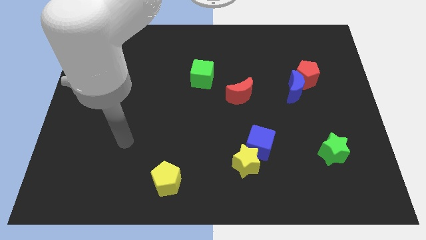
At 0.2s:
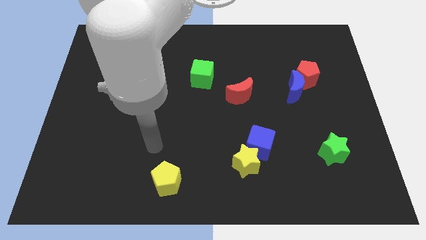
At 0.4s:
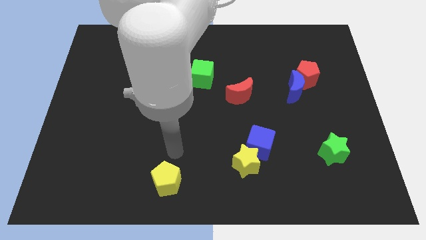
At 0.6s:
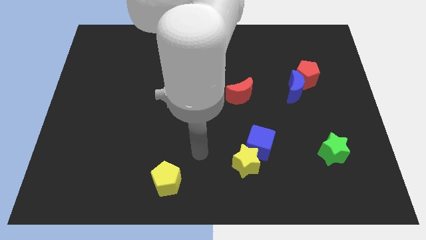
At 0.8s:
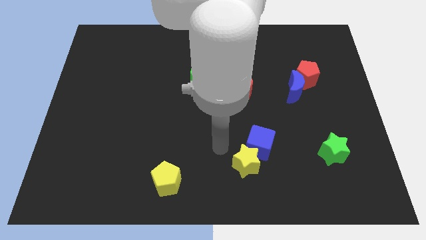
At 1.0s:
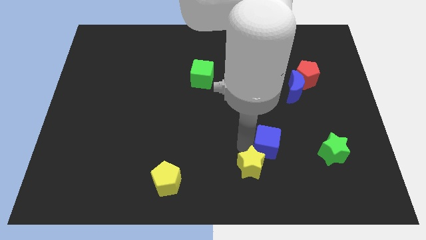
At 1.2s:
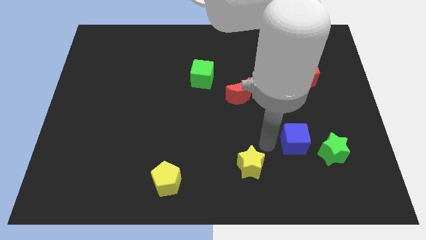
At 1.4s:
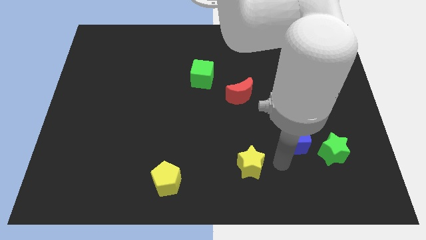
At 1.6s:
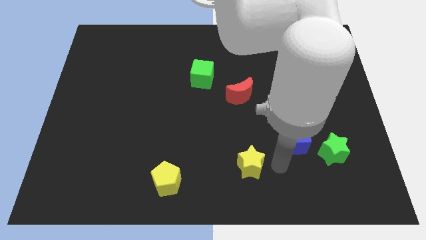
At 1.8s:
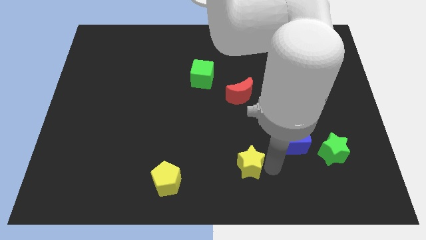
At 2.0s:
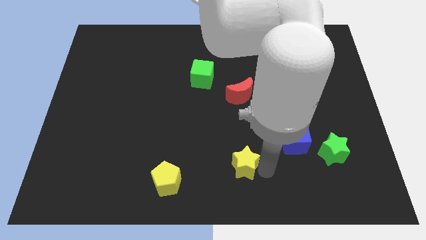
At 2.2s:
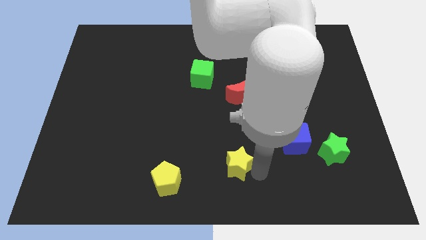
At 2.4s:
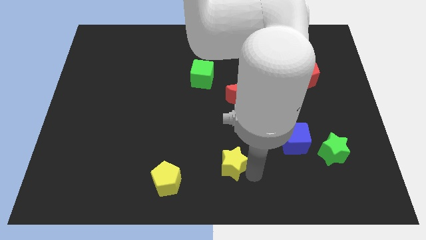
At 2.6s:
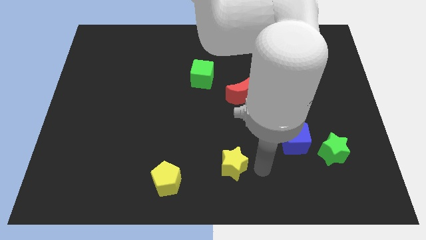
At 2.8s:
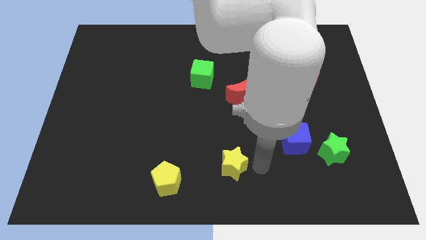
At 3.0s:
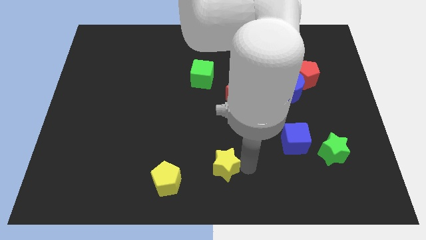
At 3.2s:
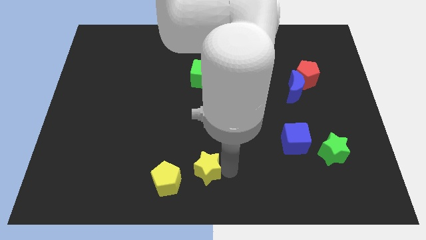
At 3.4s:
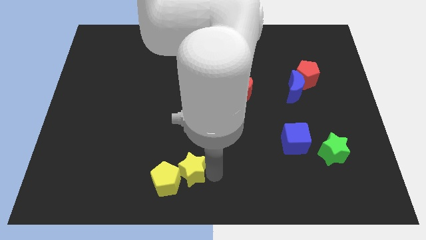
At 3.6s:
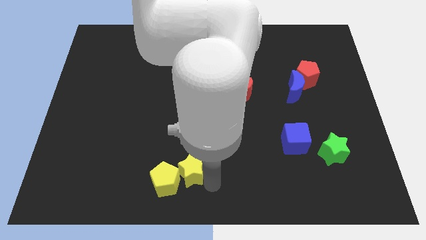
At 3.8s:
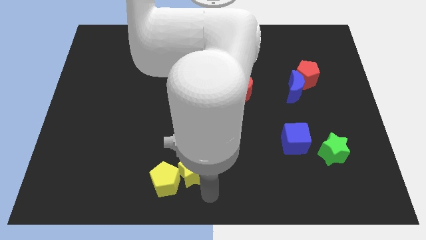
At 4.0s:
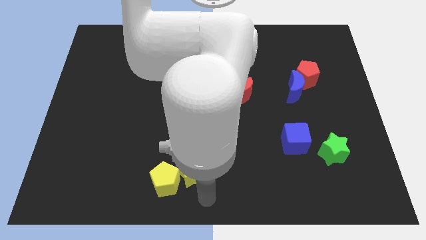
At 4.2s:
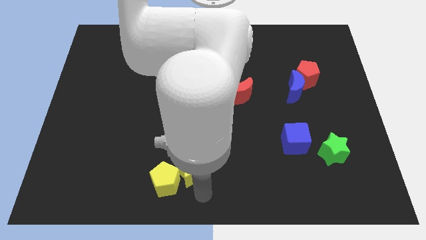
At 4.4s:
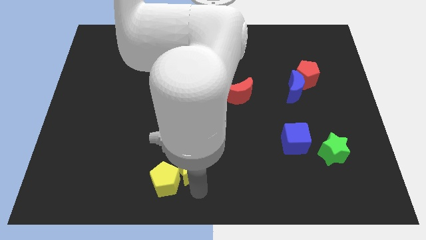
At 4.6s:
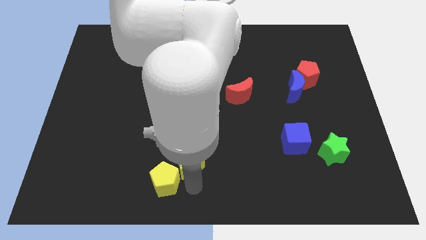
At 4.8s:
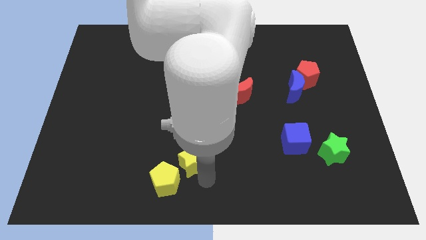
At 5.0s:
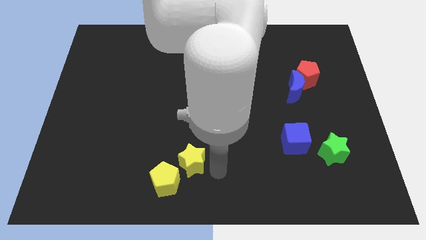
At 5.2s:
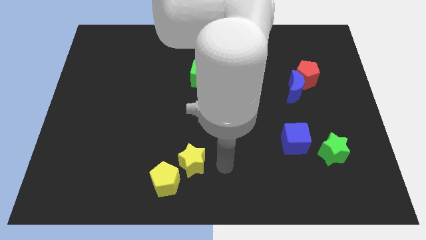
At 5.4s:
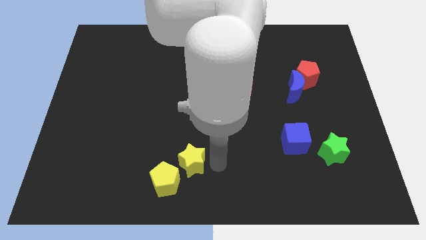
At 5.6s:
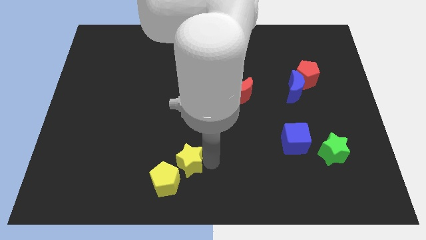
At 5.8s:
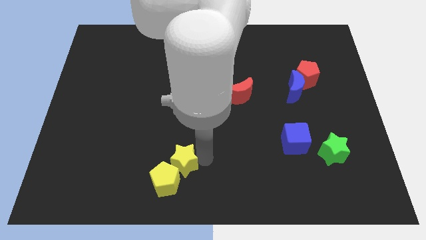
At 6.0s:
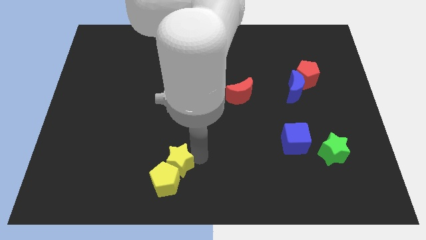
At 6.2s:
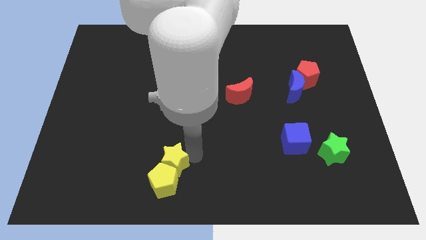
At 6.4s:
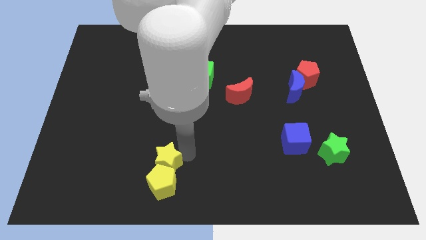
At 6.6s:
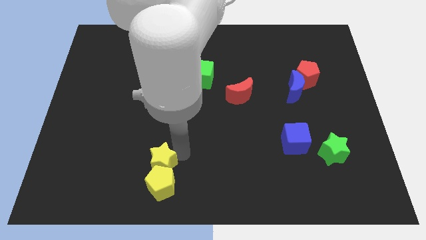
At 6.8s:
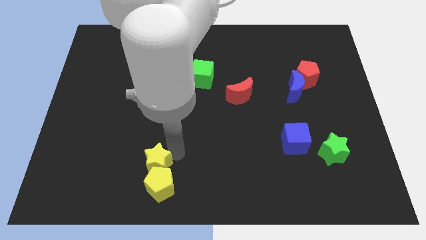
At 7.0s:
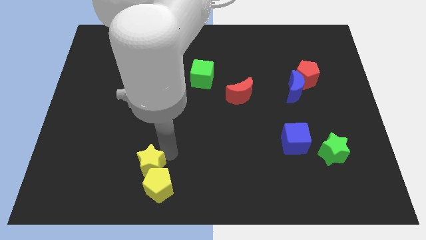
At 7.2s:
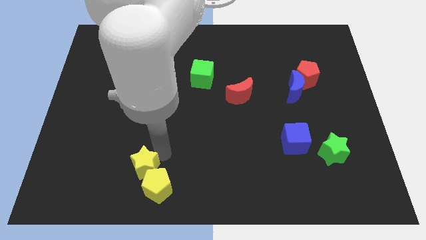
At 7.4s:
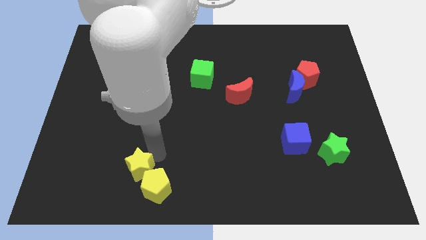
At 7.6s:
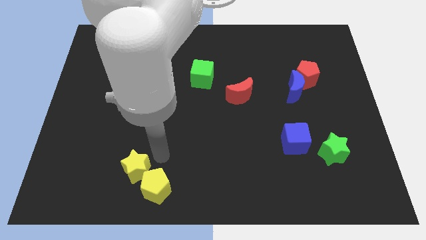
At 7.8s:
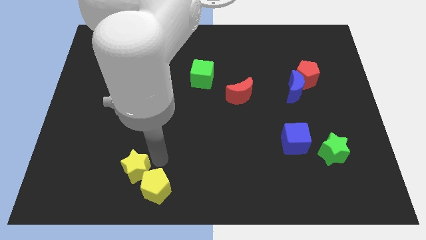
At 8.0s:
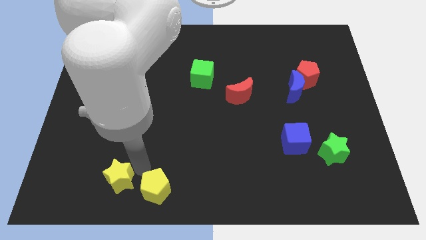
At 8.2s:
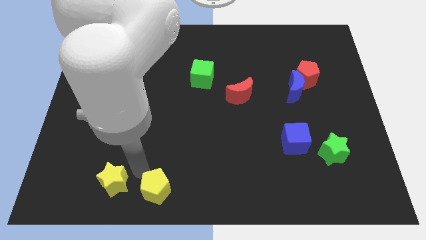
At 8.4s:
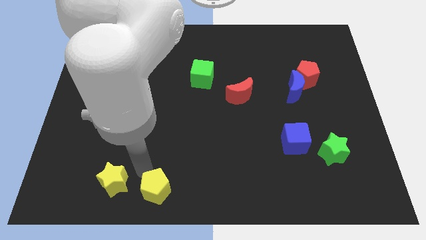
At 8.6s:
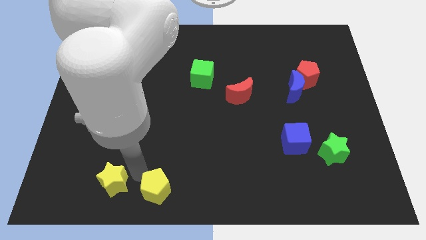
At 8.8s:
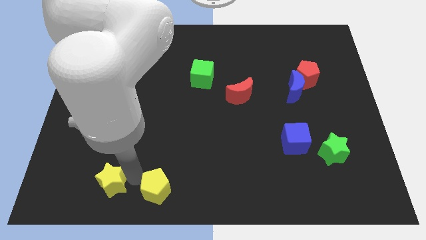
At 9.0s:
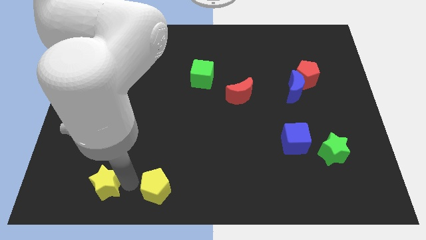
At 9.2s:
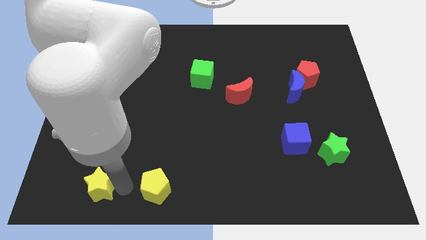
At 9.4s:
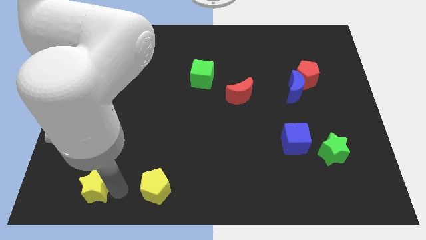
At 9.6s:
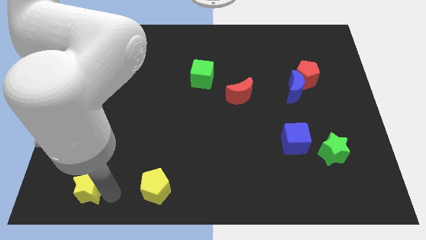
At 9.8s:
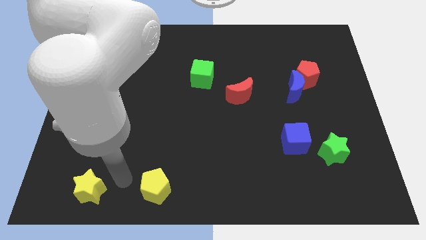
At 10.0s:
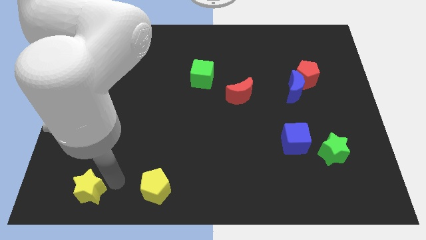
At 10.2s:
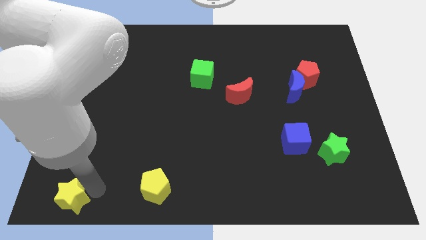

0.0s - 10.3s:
slide the yellow star to the bottom left

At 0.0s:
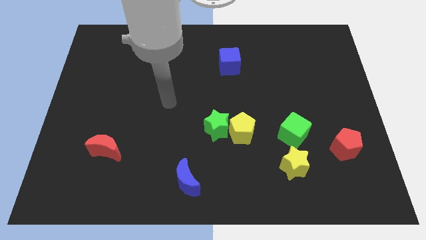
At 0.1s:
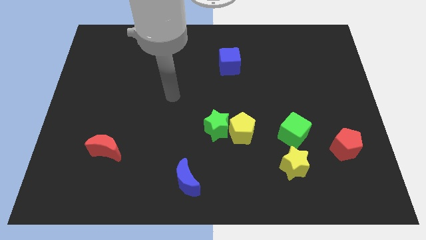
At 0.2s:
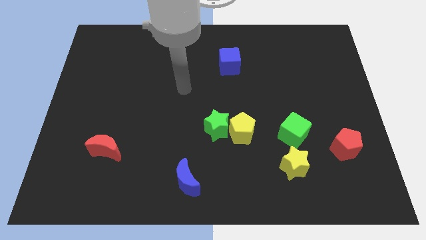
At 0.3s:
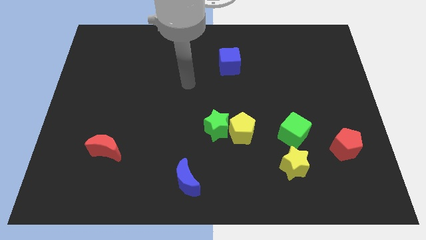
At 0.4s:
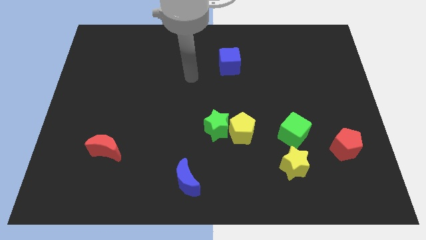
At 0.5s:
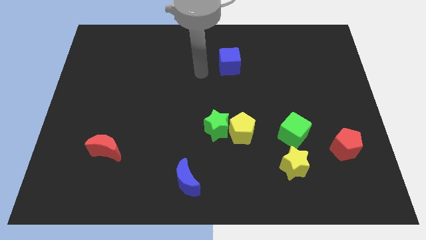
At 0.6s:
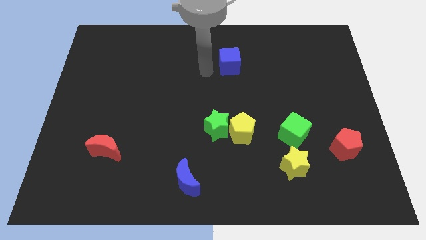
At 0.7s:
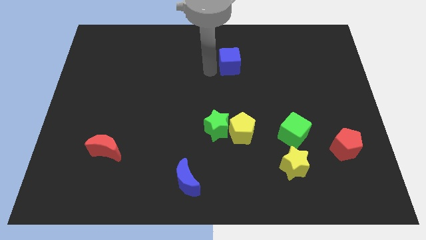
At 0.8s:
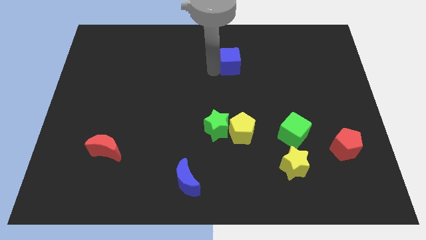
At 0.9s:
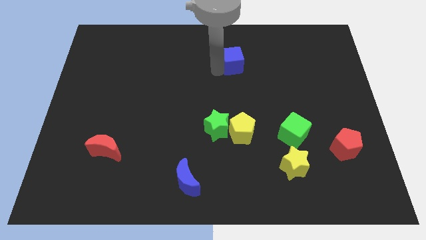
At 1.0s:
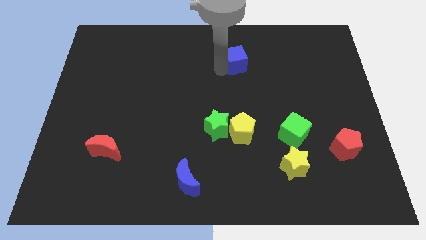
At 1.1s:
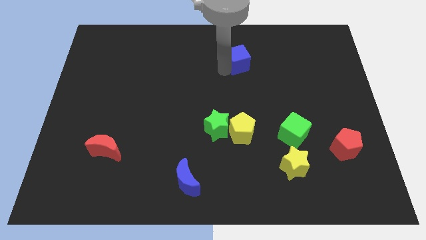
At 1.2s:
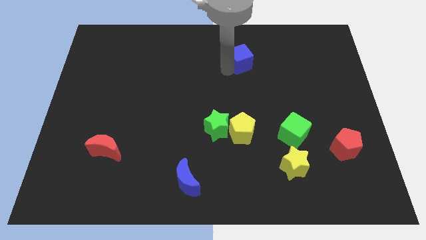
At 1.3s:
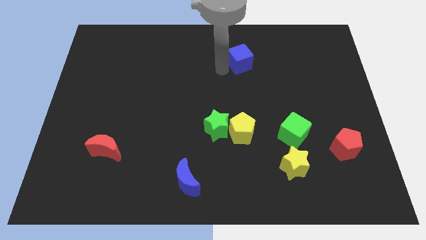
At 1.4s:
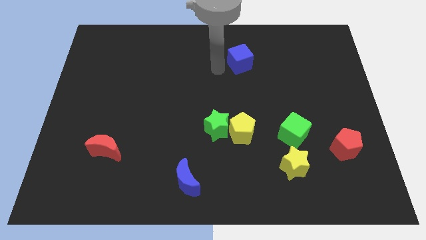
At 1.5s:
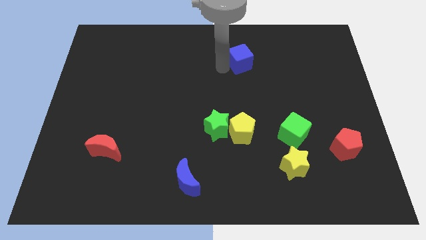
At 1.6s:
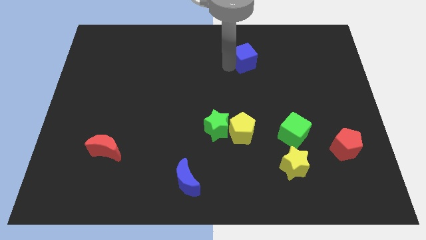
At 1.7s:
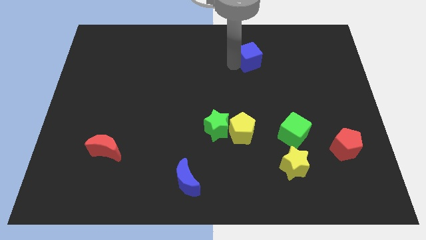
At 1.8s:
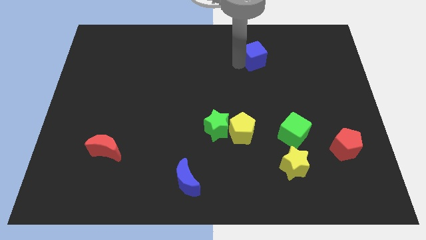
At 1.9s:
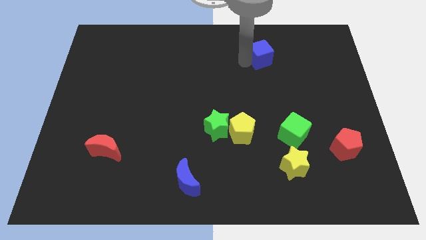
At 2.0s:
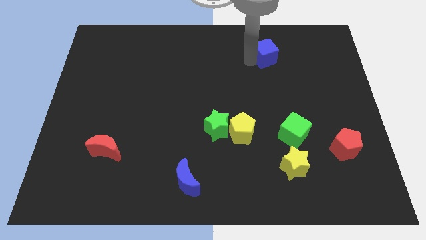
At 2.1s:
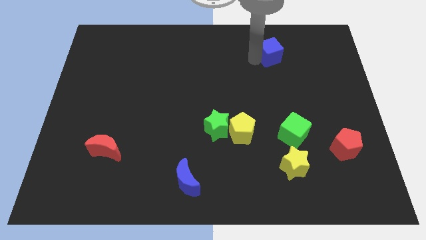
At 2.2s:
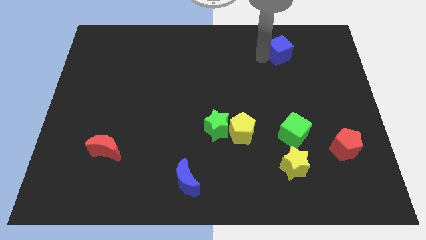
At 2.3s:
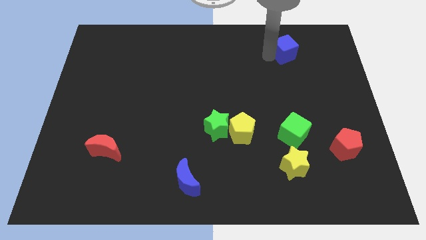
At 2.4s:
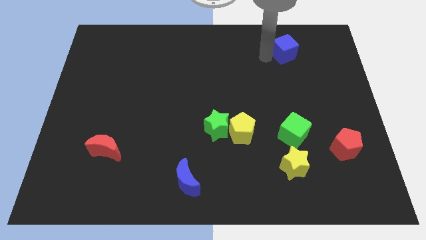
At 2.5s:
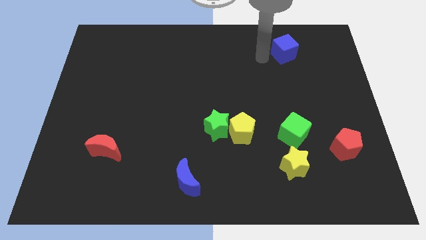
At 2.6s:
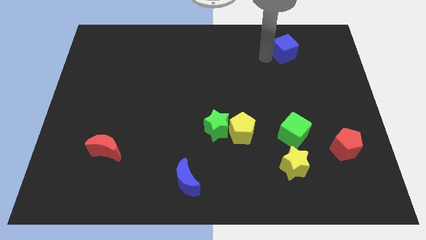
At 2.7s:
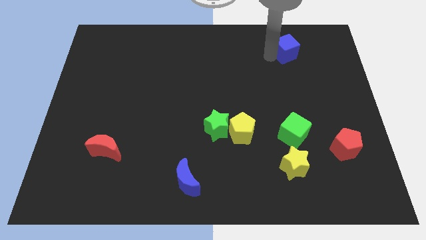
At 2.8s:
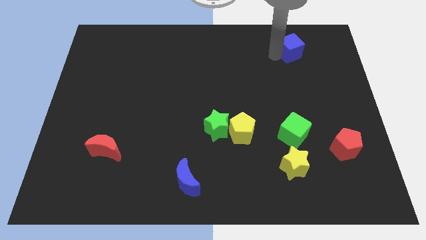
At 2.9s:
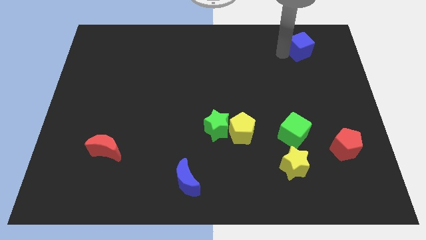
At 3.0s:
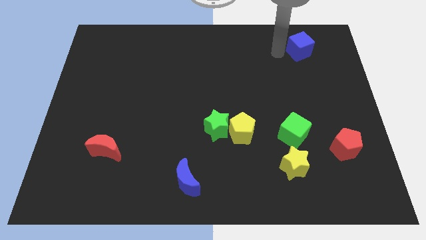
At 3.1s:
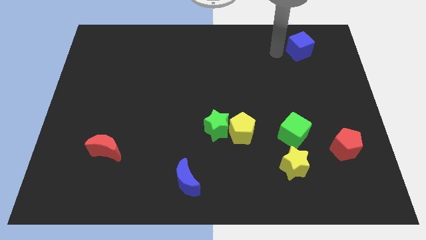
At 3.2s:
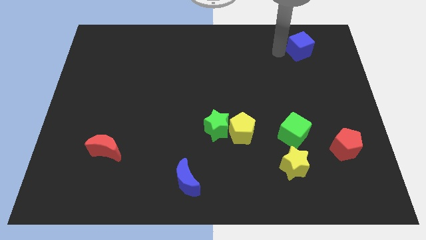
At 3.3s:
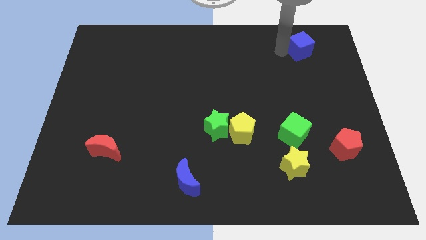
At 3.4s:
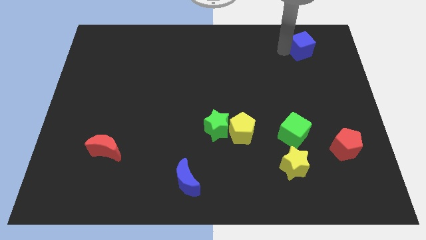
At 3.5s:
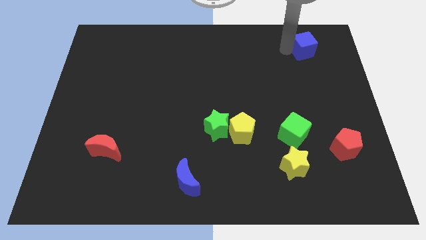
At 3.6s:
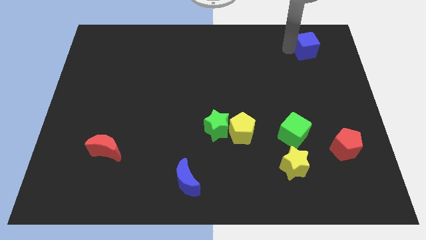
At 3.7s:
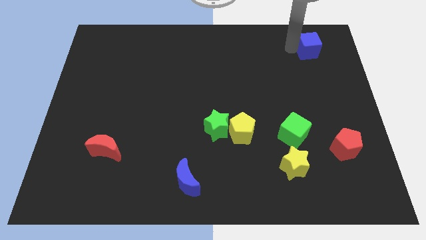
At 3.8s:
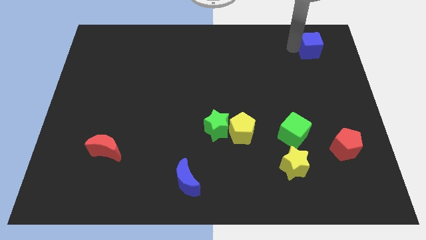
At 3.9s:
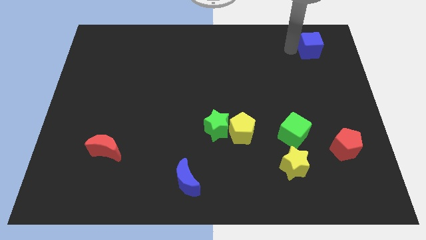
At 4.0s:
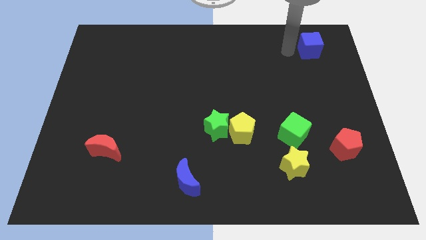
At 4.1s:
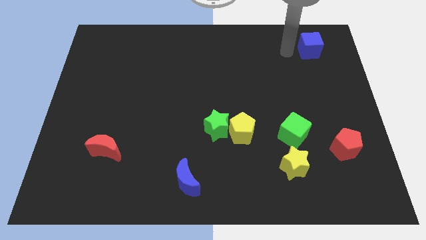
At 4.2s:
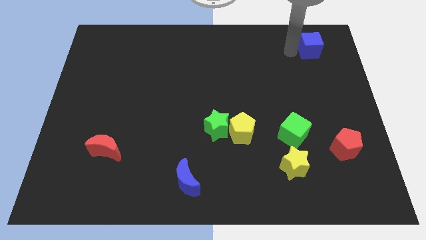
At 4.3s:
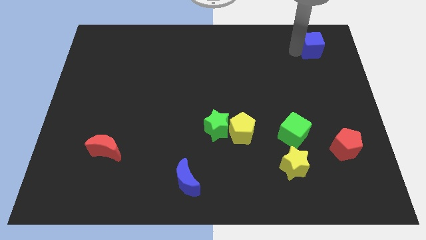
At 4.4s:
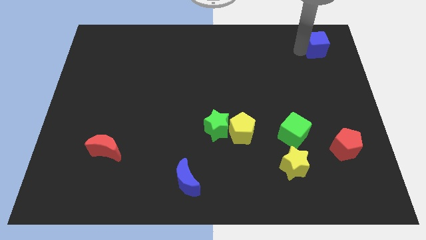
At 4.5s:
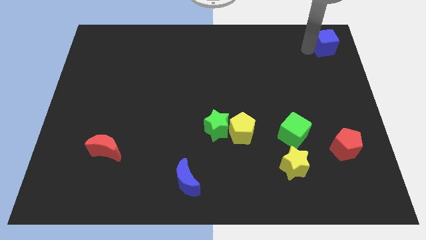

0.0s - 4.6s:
slide the blue cube to the upper right corner
